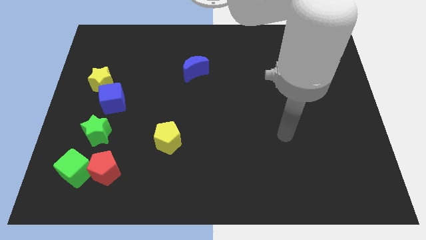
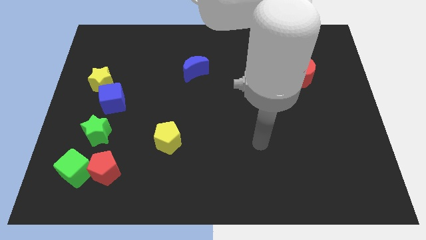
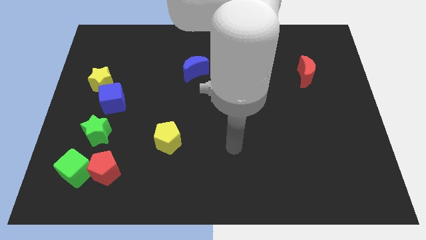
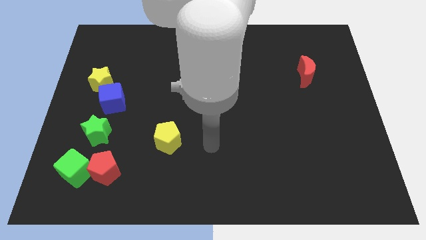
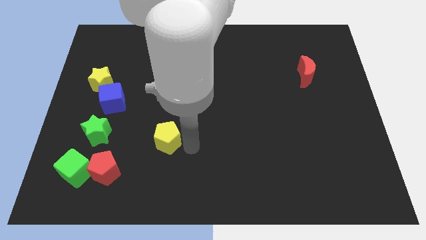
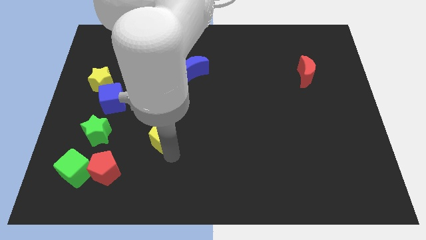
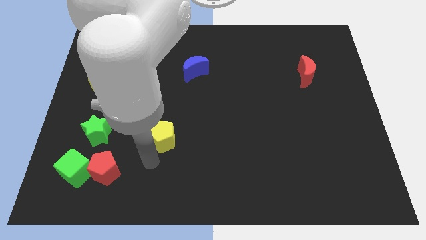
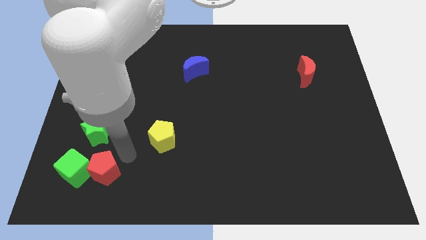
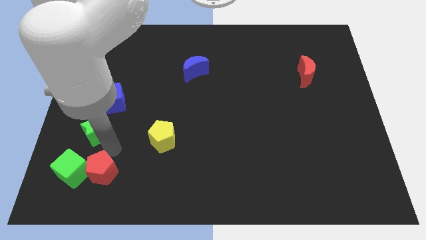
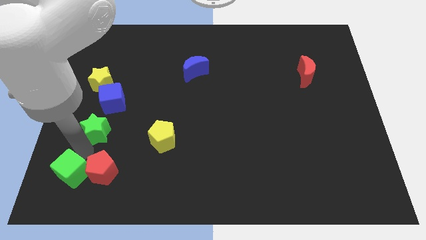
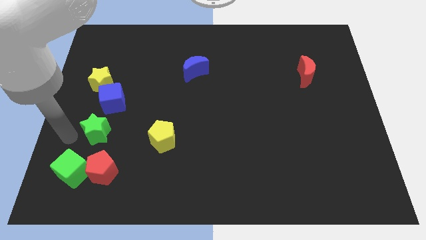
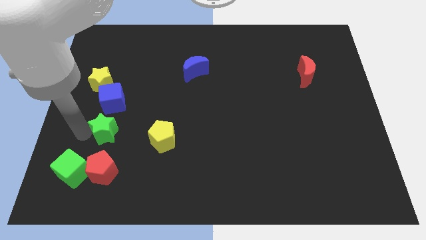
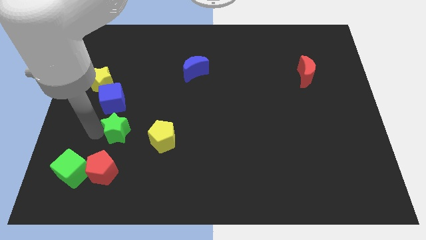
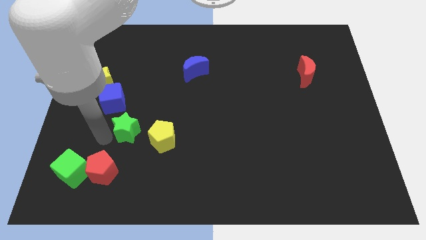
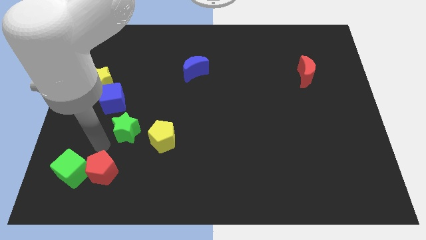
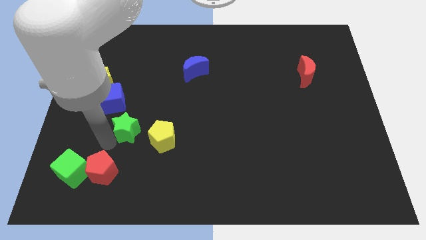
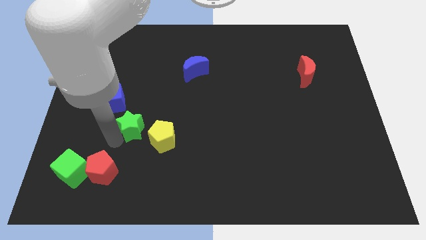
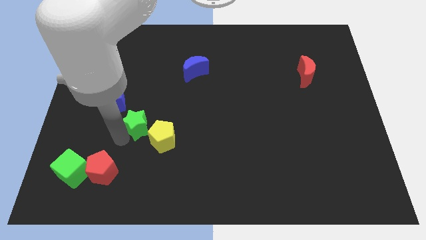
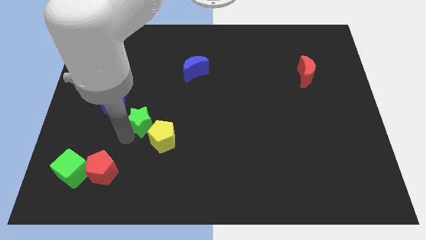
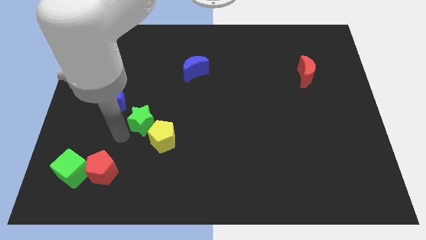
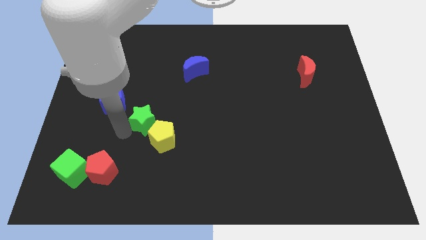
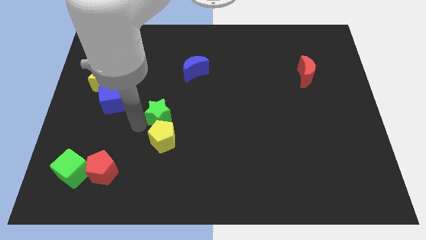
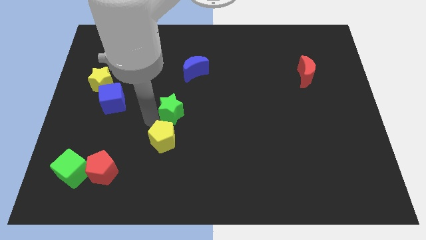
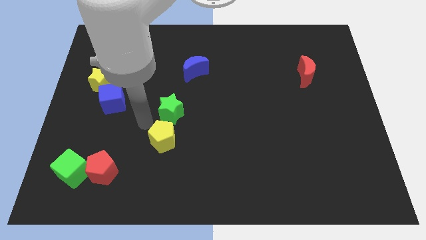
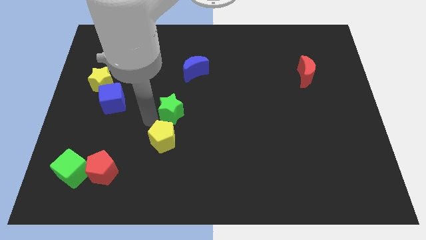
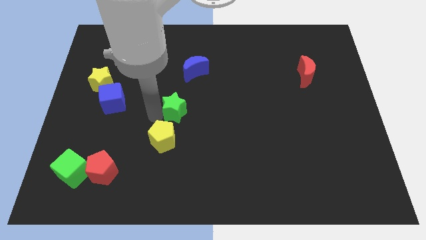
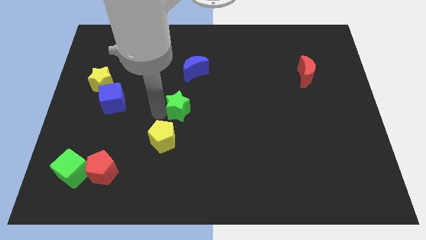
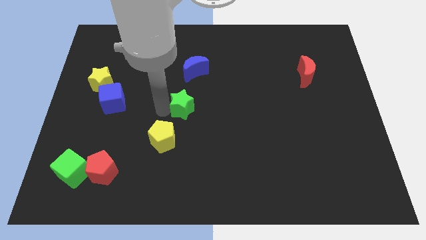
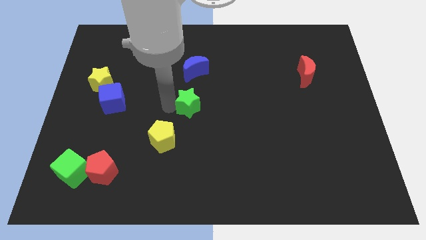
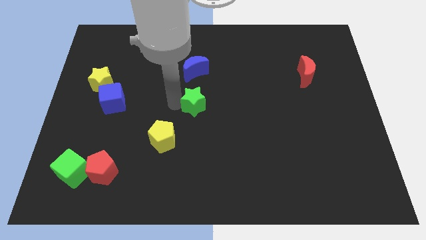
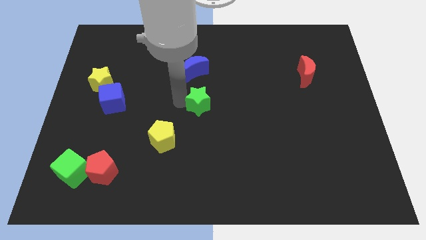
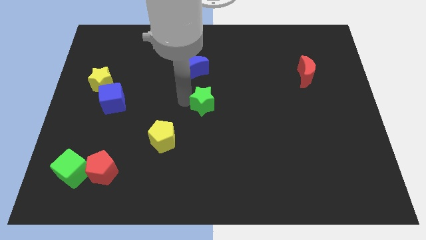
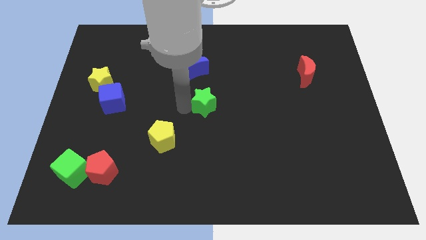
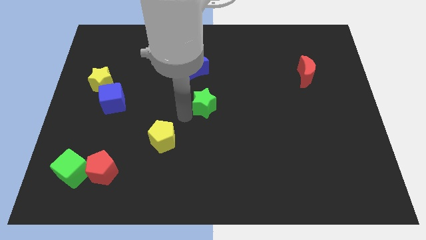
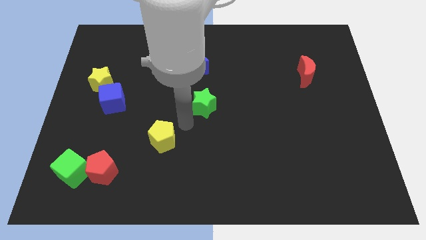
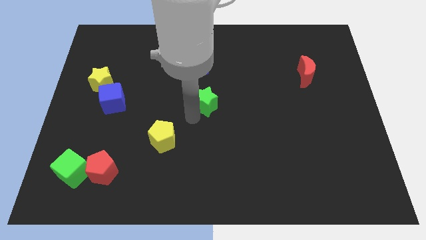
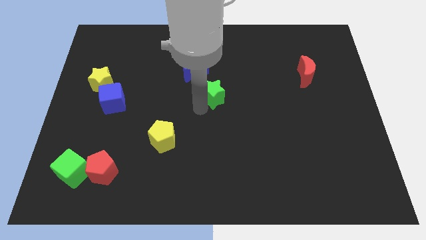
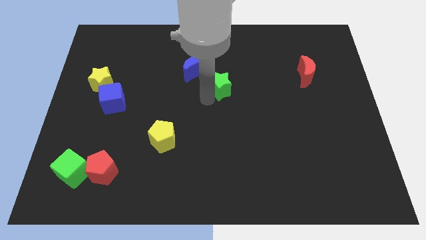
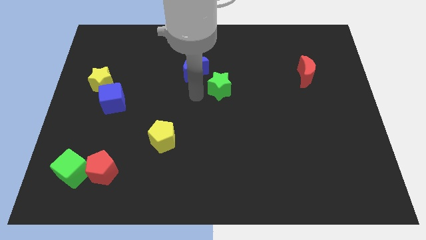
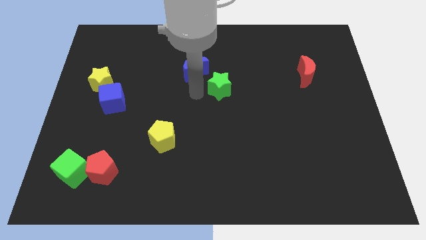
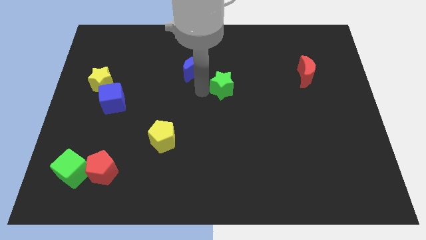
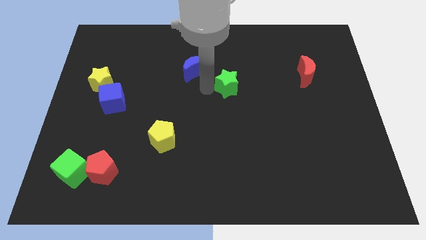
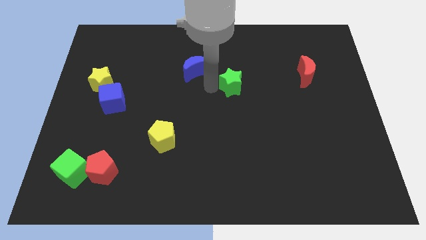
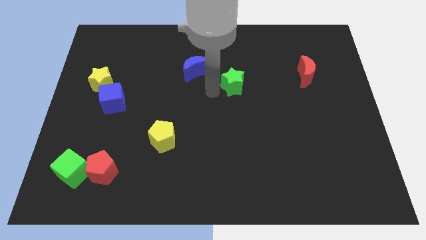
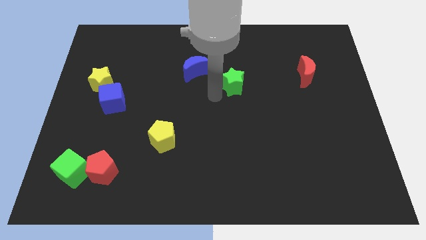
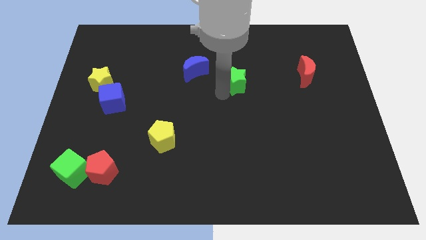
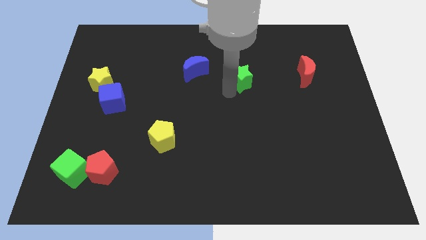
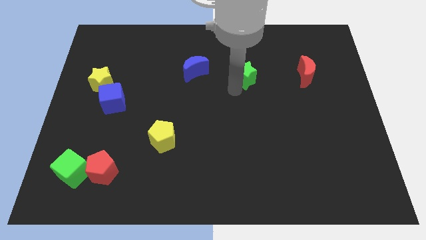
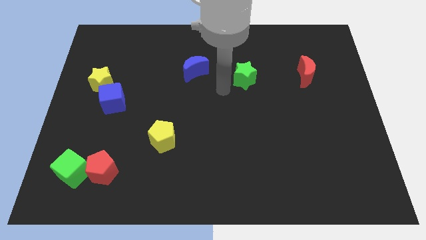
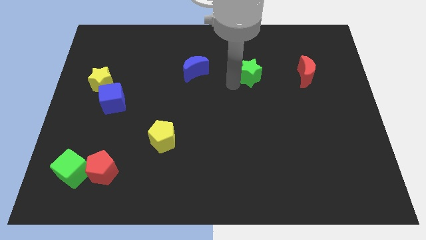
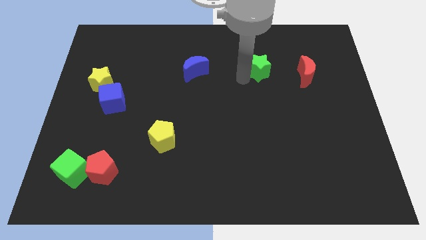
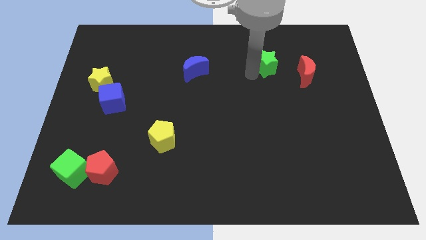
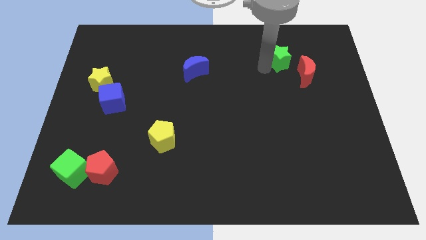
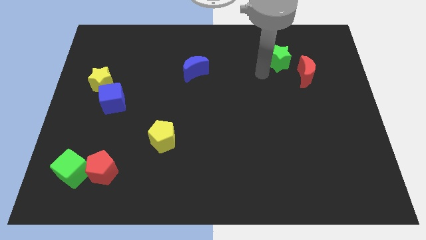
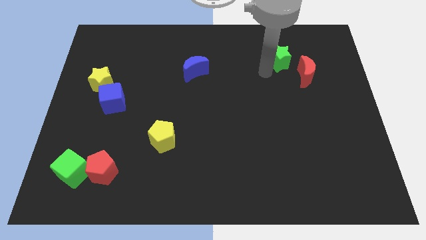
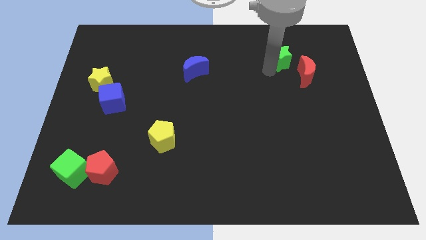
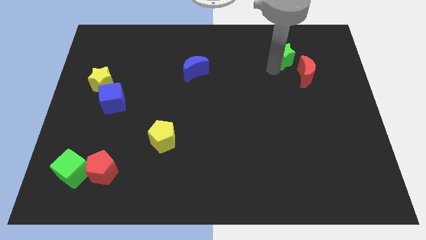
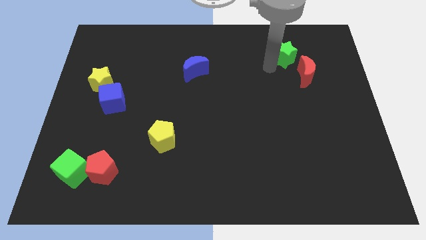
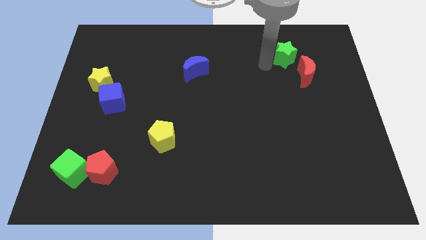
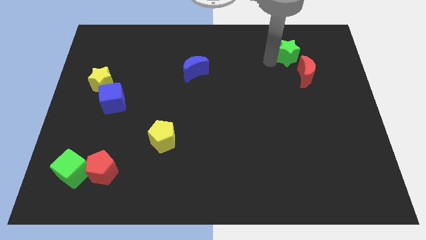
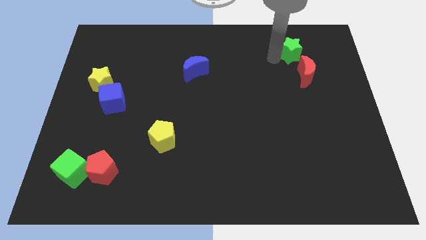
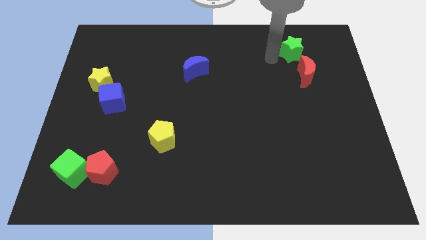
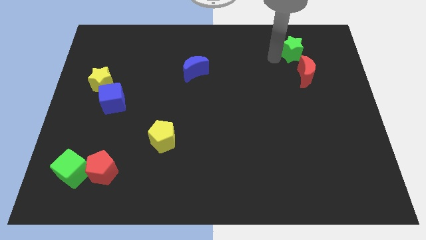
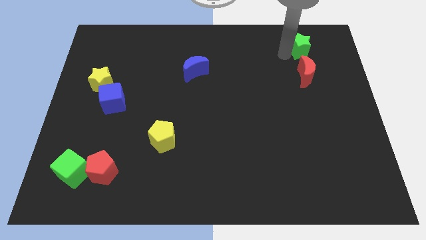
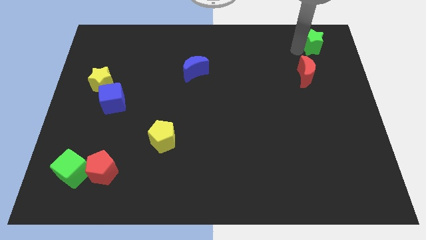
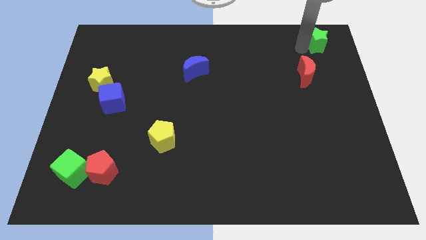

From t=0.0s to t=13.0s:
move the green star to the upper right corner
